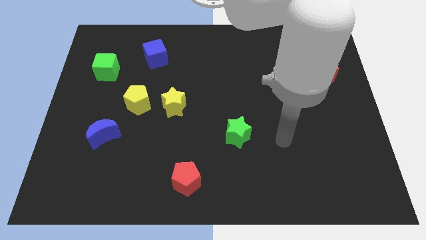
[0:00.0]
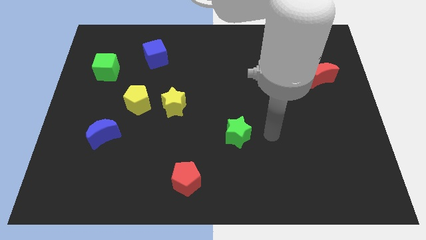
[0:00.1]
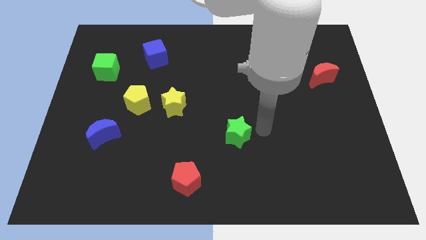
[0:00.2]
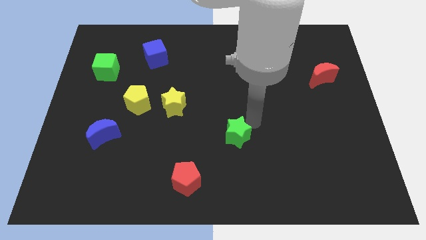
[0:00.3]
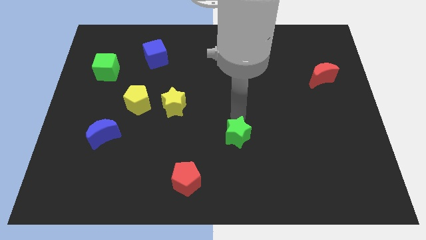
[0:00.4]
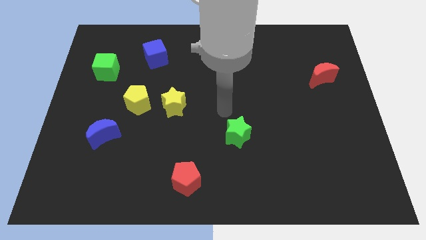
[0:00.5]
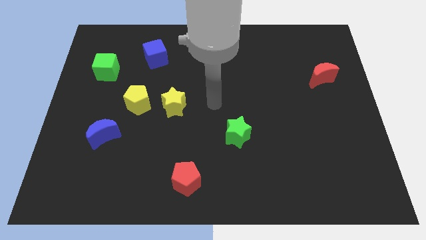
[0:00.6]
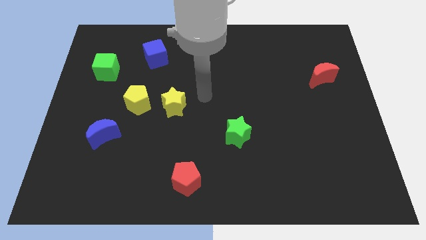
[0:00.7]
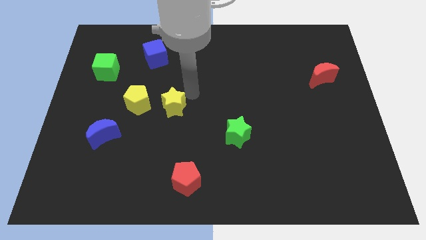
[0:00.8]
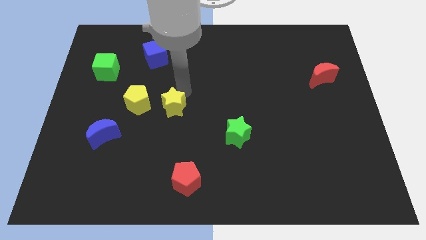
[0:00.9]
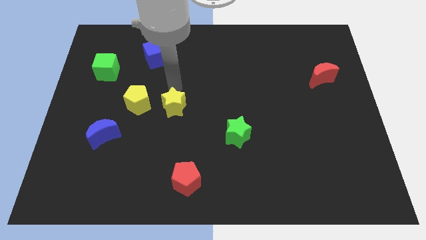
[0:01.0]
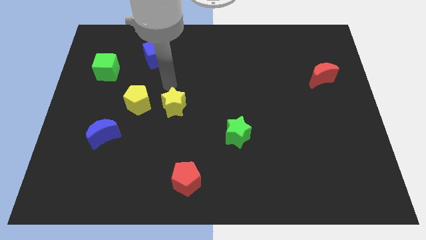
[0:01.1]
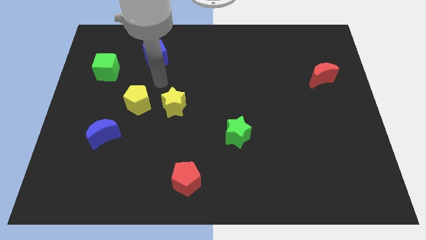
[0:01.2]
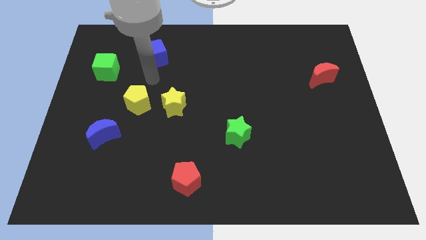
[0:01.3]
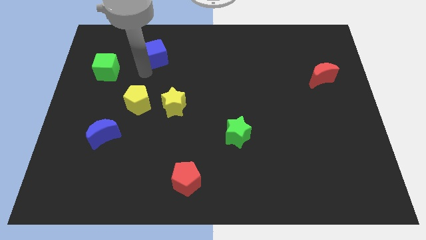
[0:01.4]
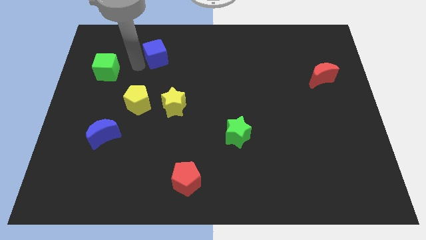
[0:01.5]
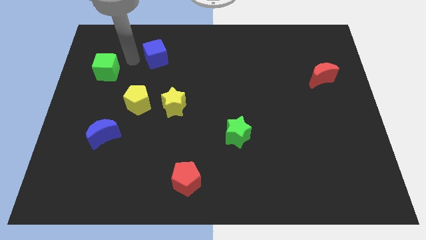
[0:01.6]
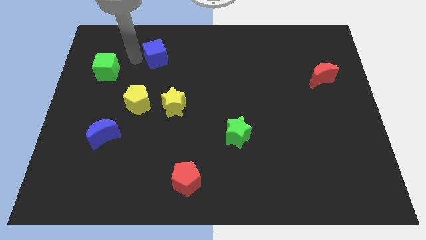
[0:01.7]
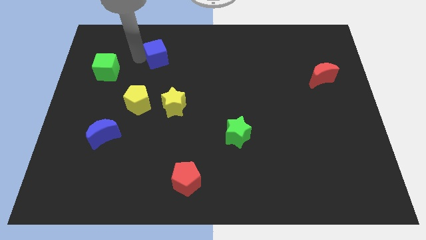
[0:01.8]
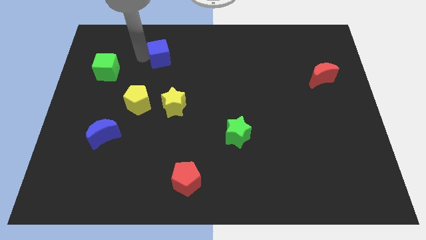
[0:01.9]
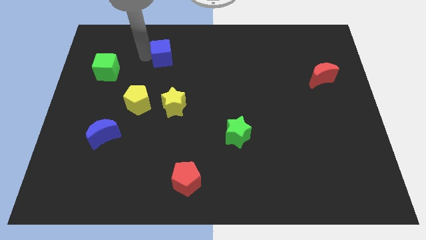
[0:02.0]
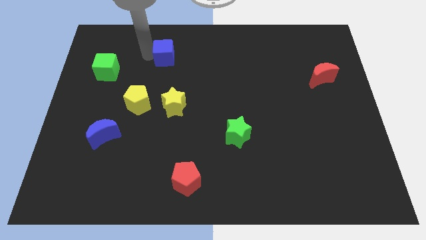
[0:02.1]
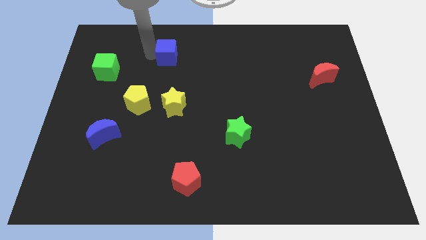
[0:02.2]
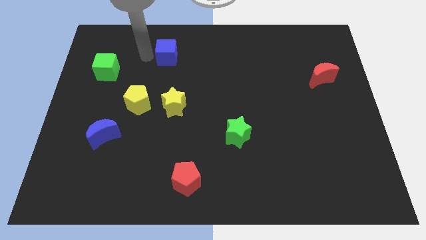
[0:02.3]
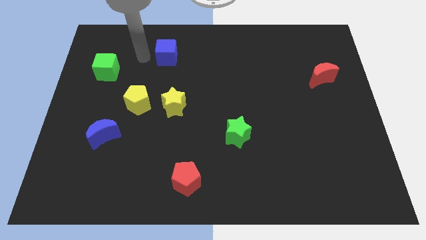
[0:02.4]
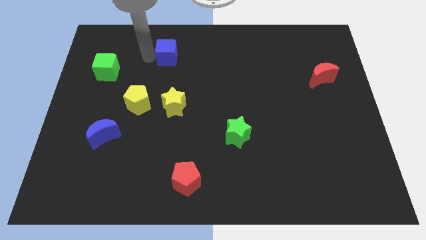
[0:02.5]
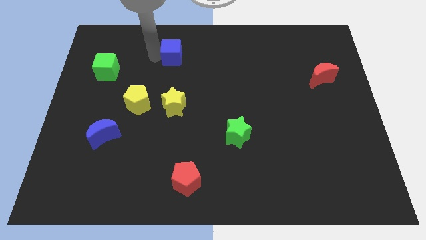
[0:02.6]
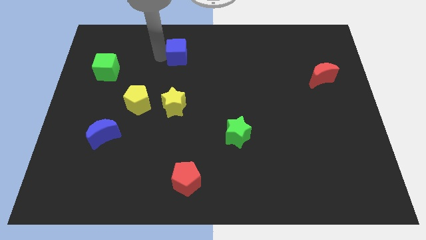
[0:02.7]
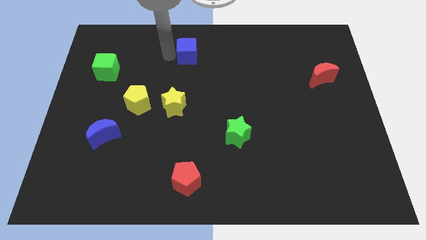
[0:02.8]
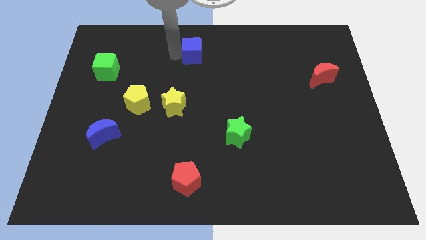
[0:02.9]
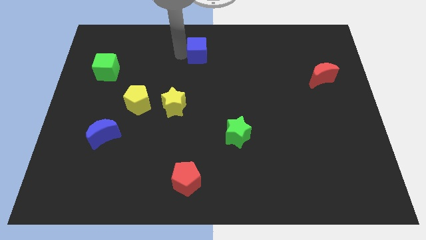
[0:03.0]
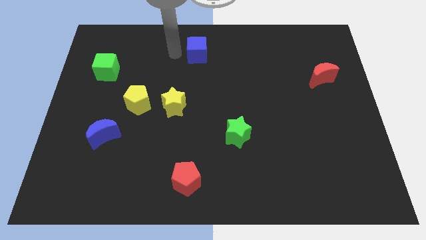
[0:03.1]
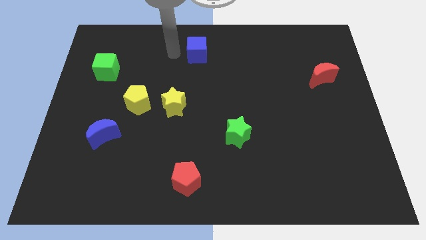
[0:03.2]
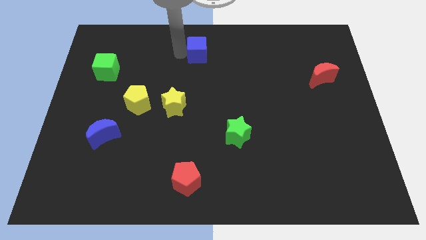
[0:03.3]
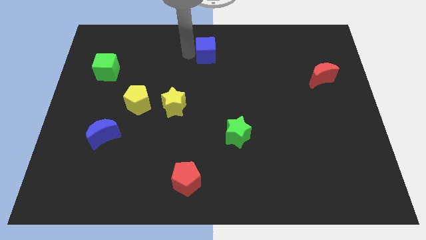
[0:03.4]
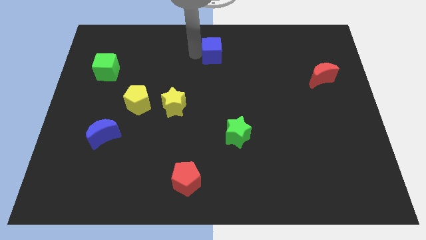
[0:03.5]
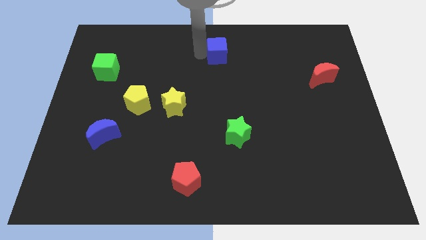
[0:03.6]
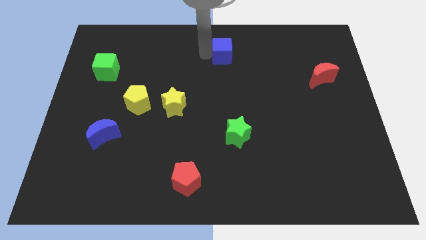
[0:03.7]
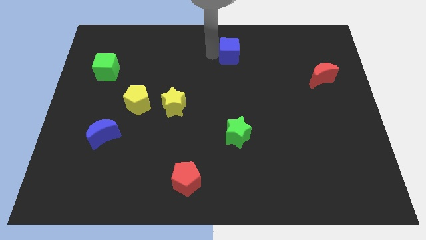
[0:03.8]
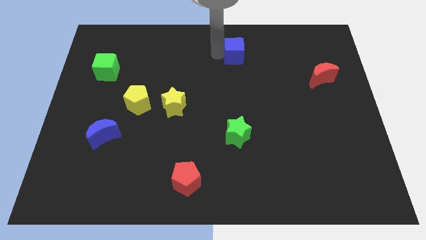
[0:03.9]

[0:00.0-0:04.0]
slide the blue cube right

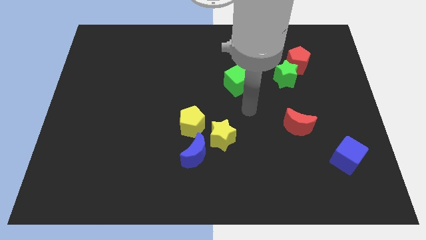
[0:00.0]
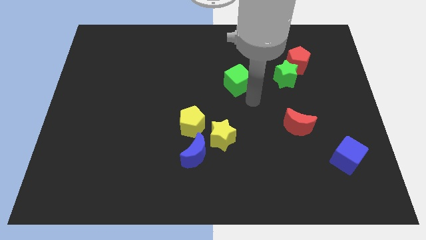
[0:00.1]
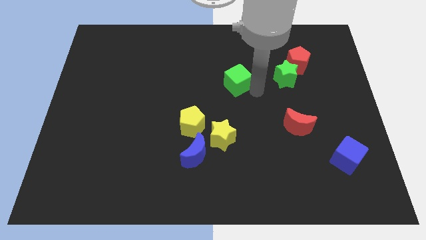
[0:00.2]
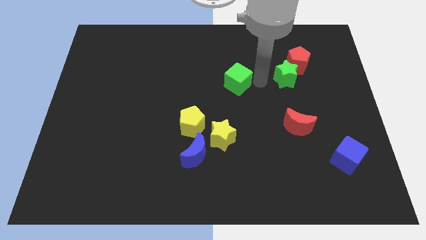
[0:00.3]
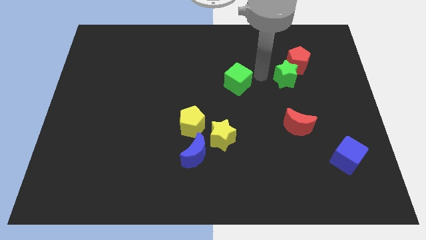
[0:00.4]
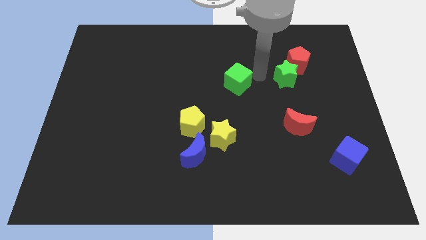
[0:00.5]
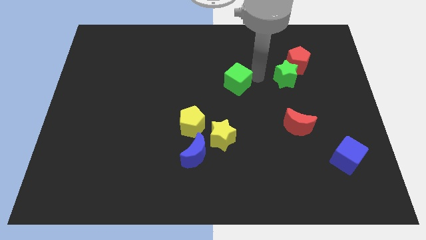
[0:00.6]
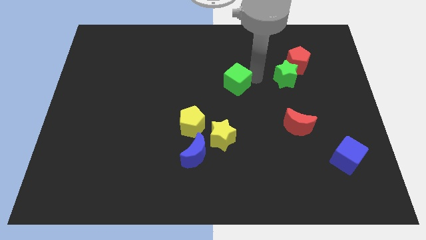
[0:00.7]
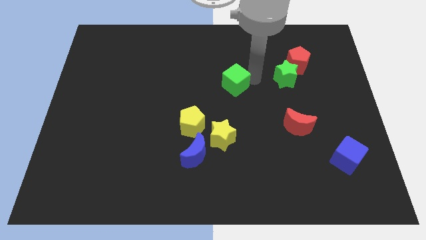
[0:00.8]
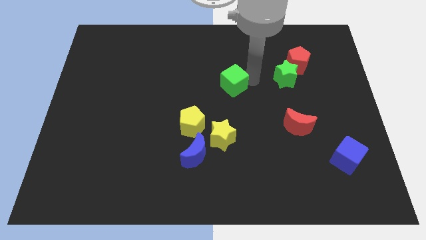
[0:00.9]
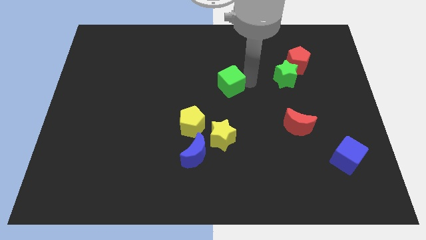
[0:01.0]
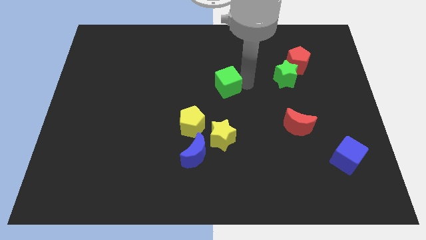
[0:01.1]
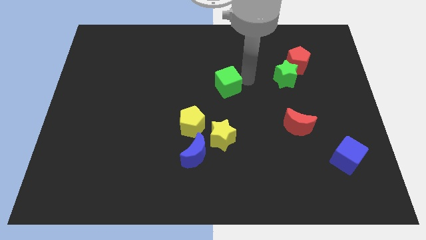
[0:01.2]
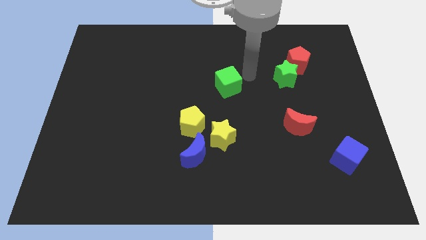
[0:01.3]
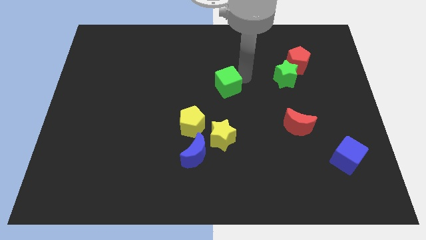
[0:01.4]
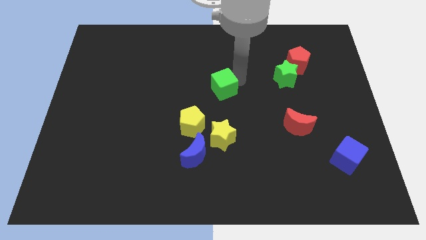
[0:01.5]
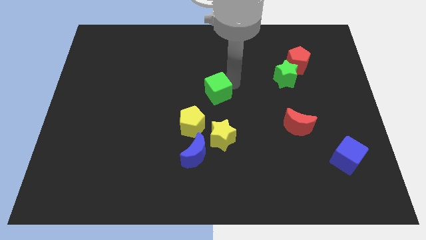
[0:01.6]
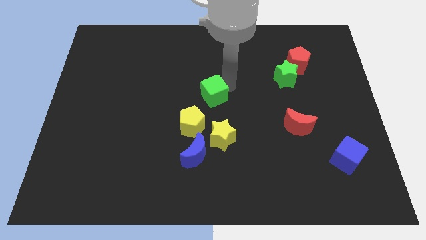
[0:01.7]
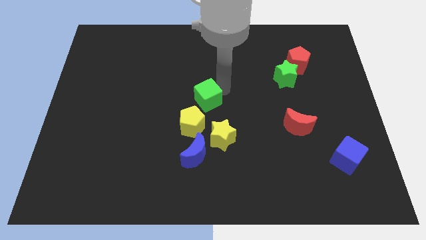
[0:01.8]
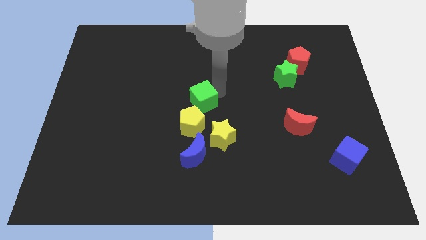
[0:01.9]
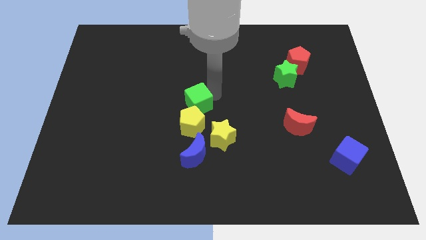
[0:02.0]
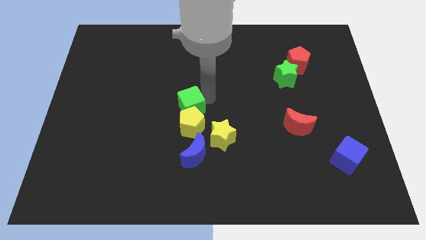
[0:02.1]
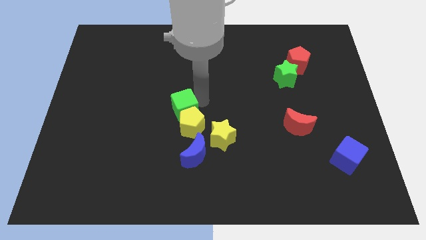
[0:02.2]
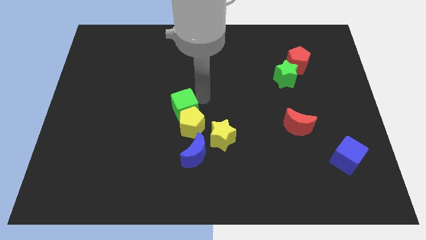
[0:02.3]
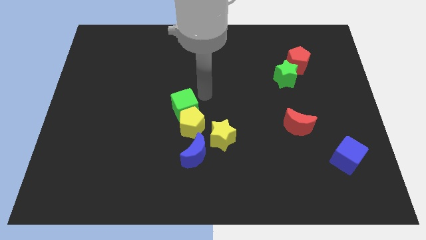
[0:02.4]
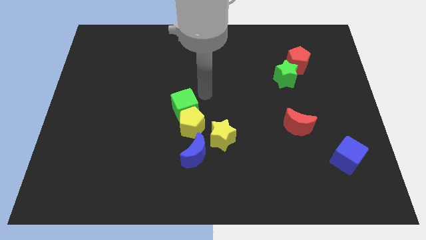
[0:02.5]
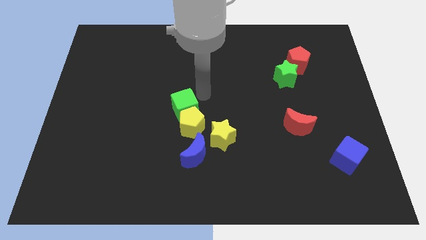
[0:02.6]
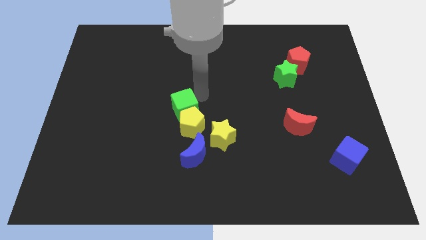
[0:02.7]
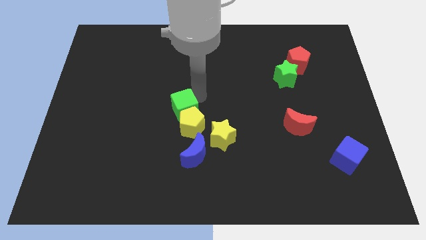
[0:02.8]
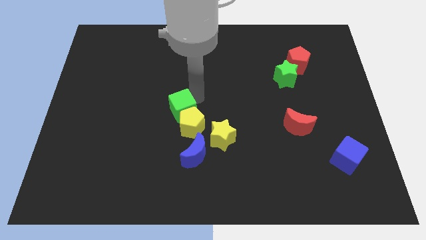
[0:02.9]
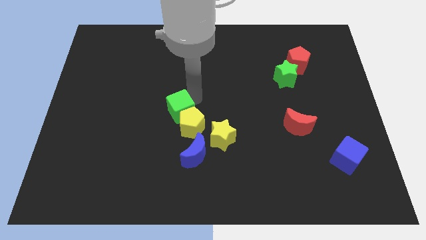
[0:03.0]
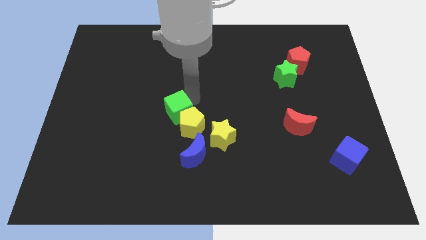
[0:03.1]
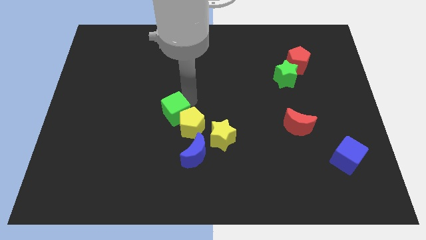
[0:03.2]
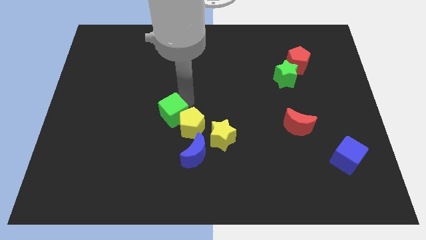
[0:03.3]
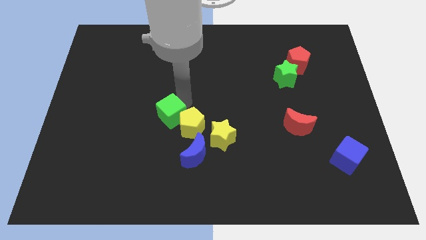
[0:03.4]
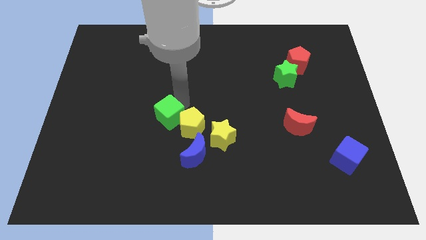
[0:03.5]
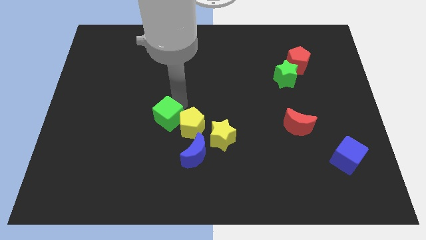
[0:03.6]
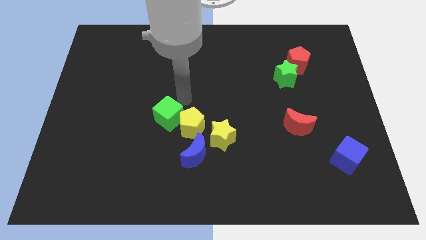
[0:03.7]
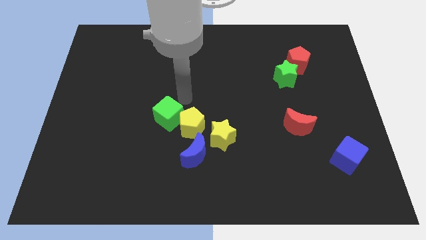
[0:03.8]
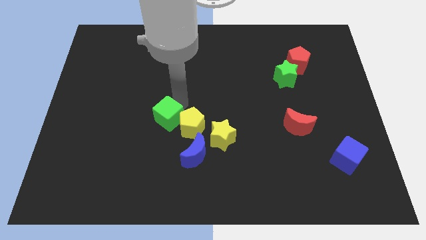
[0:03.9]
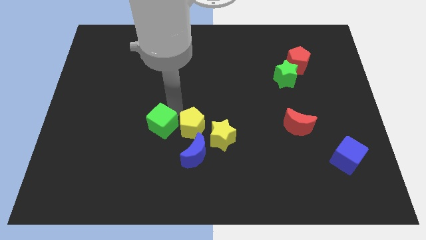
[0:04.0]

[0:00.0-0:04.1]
slide the green cube down and to the left diagonally

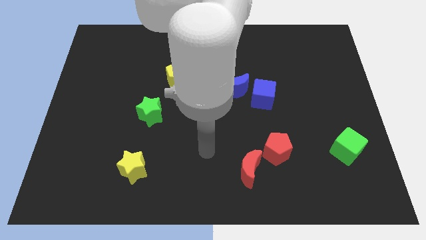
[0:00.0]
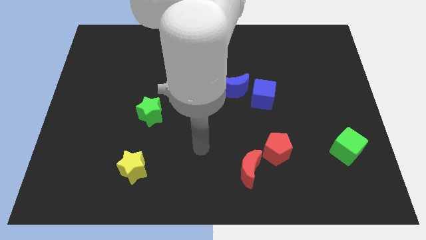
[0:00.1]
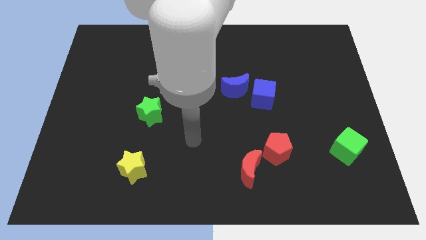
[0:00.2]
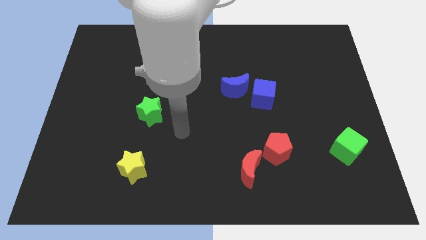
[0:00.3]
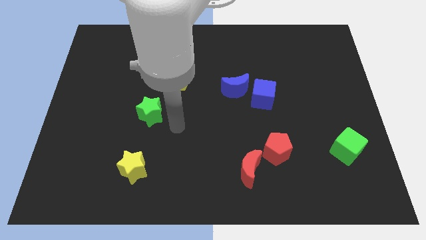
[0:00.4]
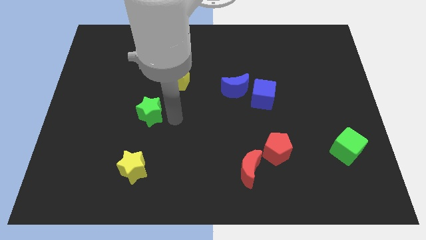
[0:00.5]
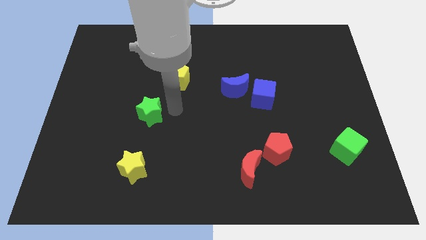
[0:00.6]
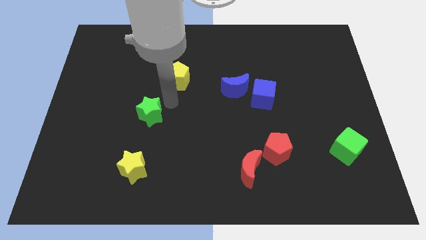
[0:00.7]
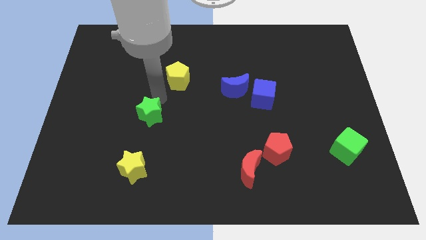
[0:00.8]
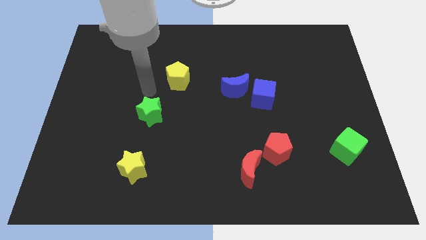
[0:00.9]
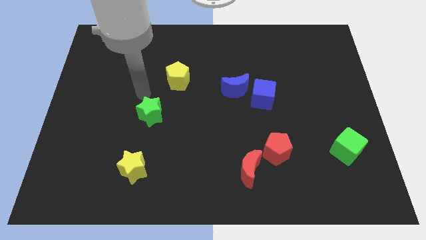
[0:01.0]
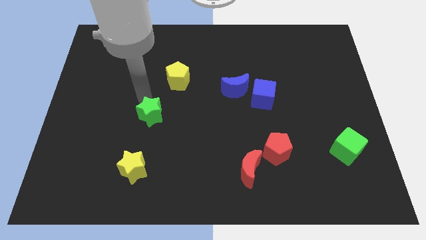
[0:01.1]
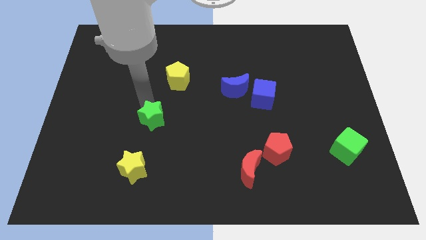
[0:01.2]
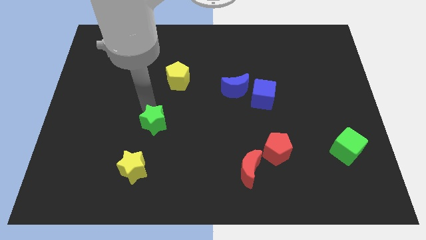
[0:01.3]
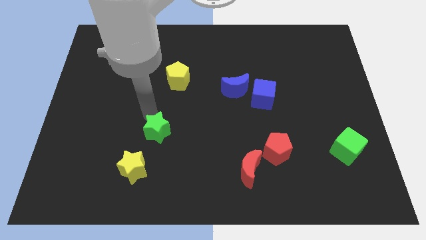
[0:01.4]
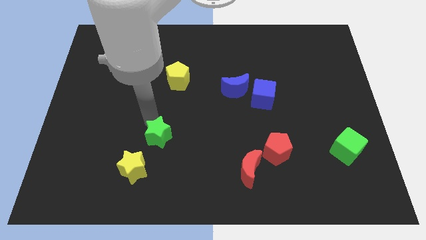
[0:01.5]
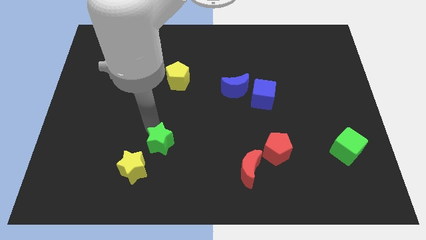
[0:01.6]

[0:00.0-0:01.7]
slightly push the green star down and right
